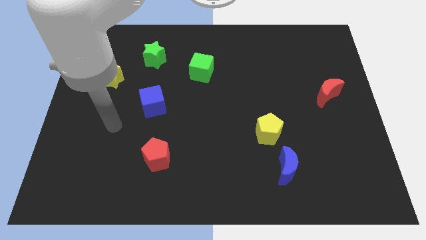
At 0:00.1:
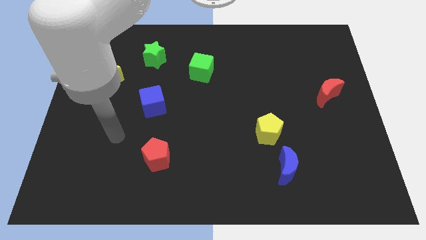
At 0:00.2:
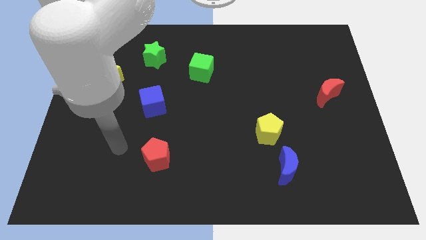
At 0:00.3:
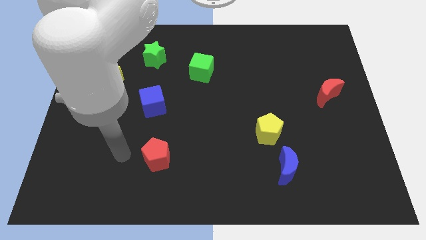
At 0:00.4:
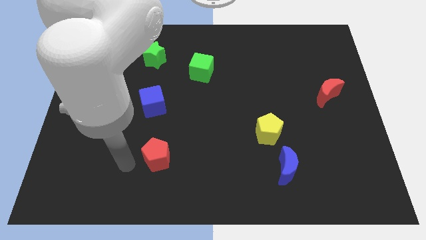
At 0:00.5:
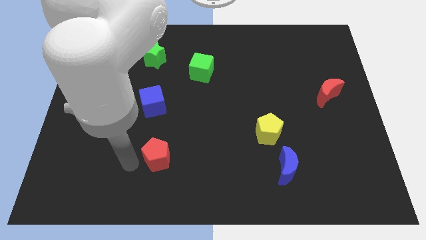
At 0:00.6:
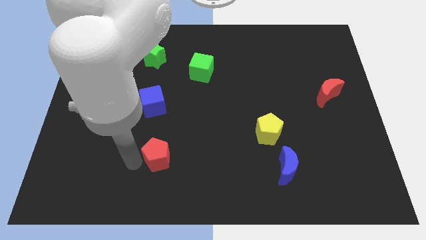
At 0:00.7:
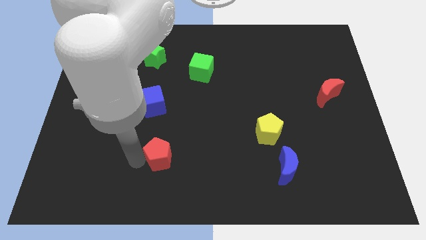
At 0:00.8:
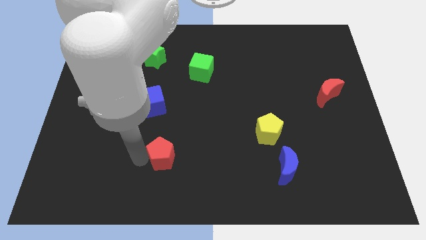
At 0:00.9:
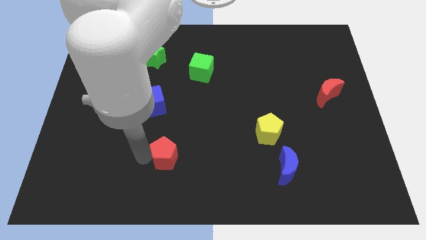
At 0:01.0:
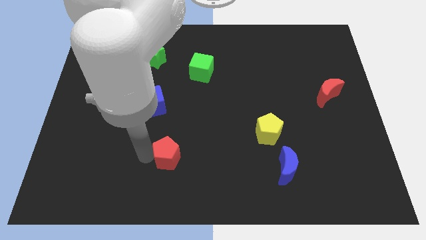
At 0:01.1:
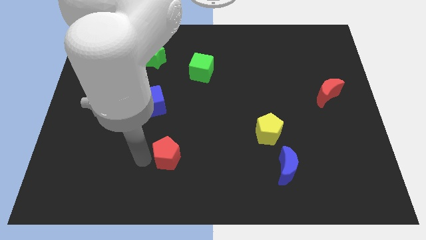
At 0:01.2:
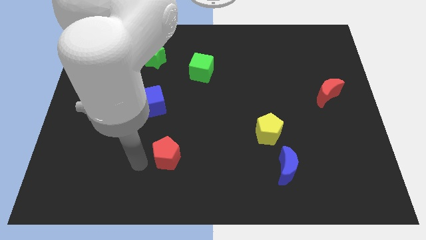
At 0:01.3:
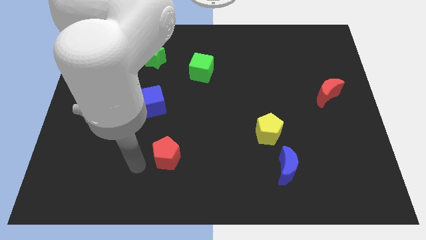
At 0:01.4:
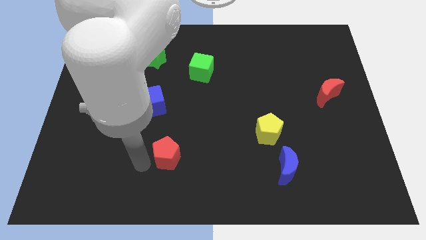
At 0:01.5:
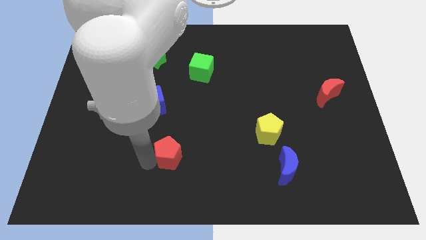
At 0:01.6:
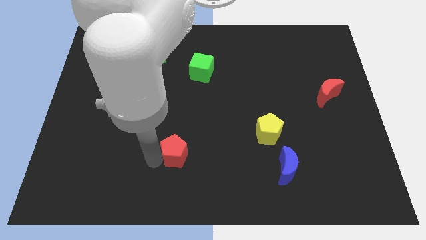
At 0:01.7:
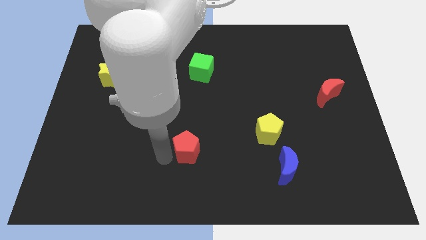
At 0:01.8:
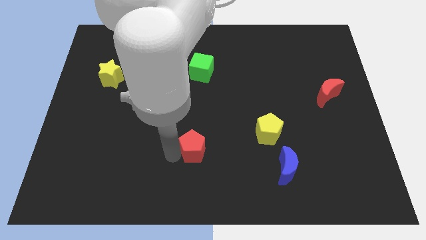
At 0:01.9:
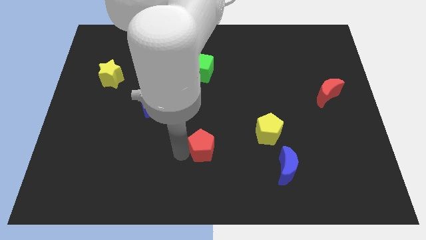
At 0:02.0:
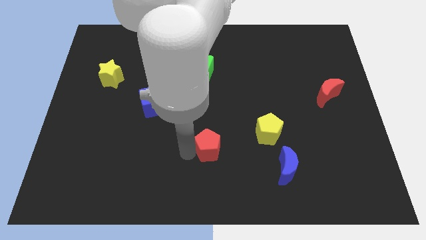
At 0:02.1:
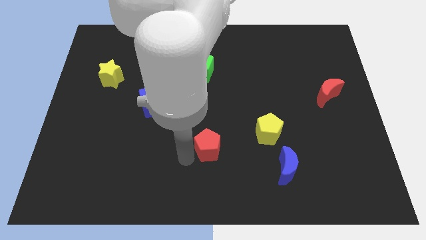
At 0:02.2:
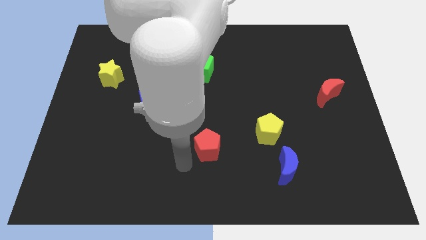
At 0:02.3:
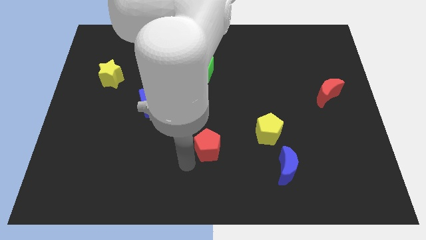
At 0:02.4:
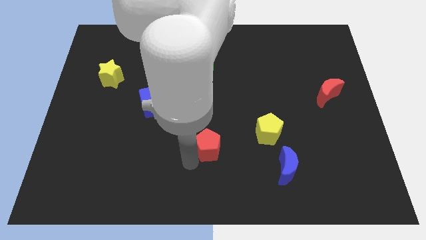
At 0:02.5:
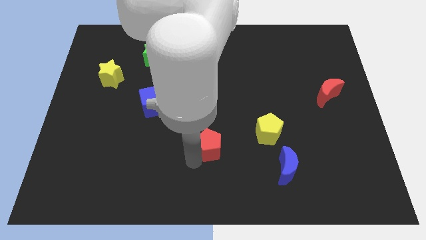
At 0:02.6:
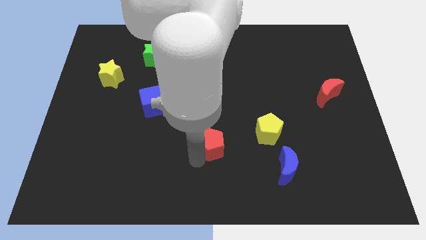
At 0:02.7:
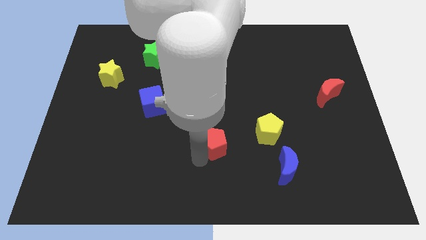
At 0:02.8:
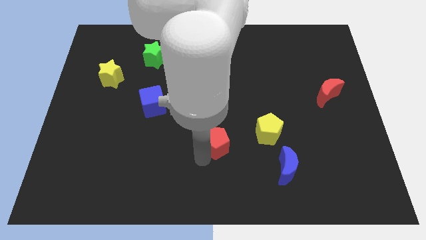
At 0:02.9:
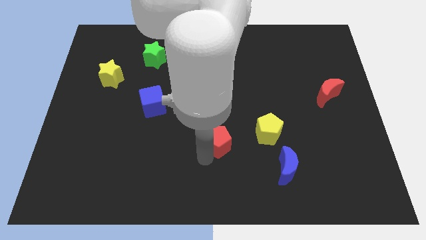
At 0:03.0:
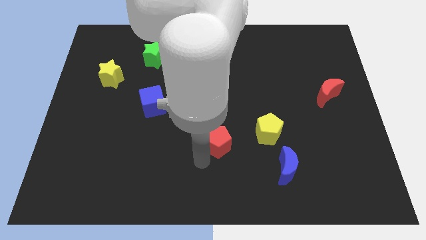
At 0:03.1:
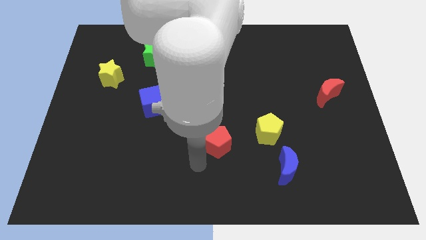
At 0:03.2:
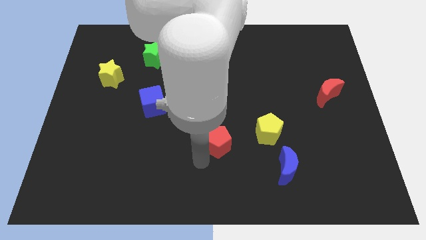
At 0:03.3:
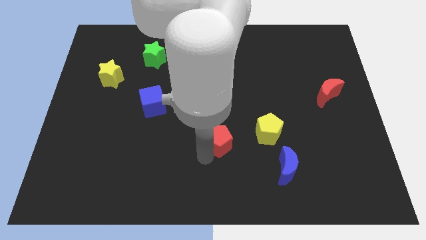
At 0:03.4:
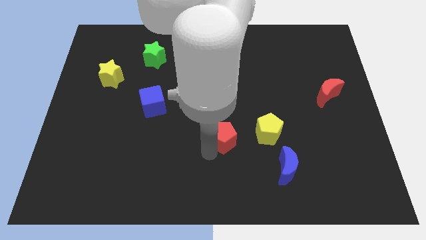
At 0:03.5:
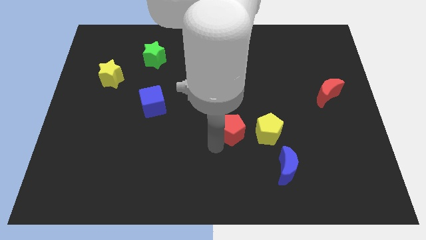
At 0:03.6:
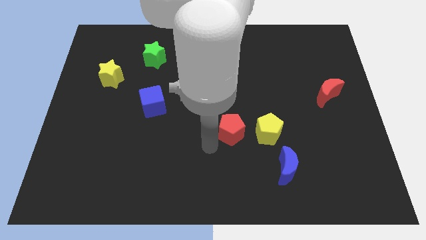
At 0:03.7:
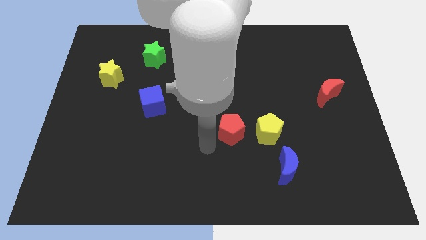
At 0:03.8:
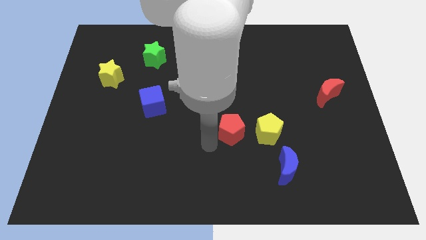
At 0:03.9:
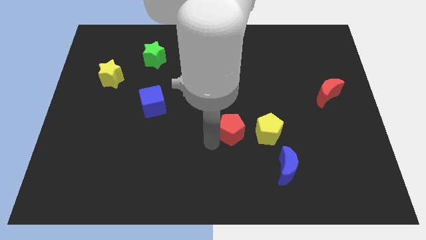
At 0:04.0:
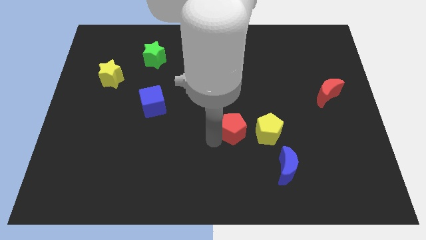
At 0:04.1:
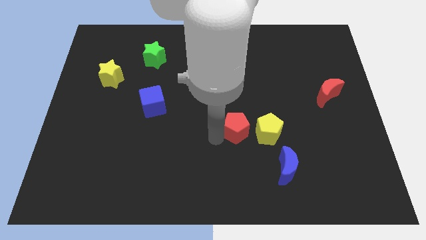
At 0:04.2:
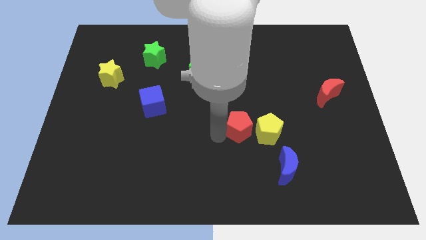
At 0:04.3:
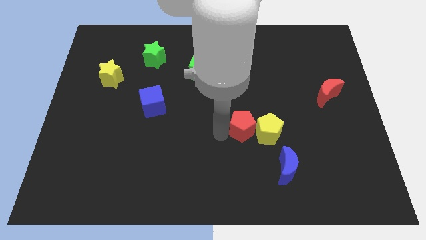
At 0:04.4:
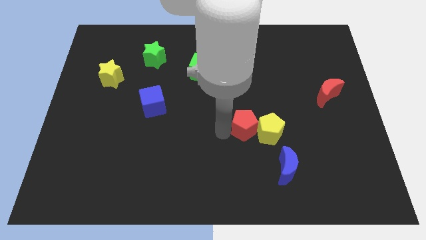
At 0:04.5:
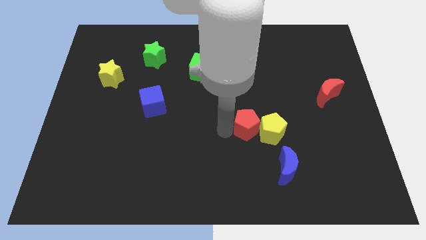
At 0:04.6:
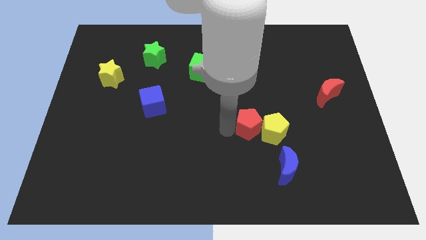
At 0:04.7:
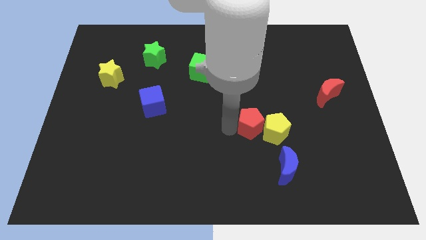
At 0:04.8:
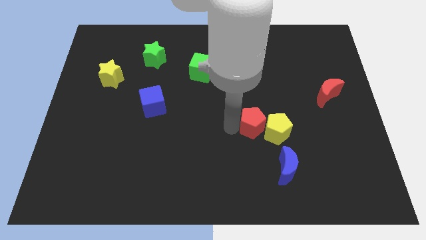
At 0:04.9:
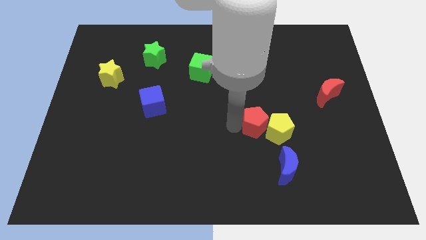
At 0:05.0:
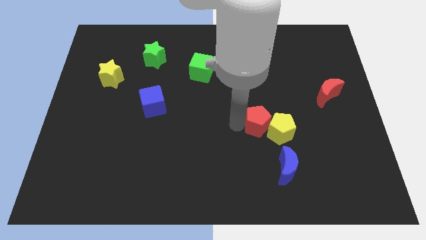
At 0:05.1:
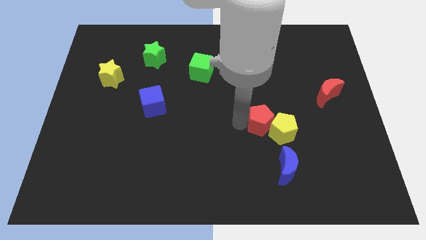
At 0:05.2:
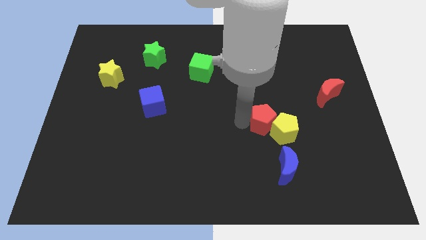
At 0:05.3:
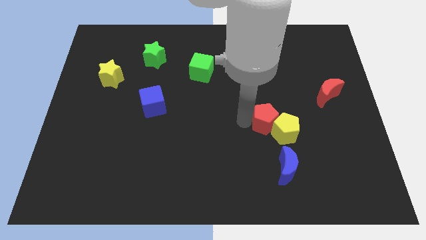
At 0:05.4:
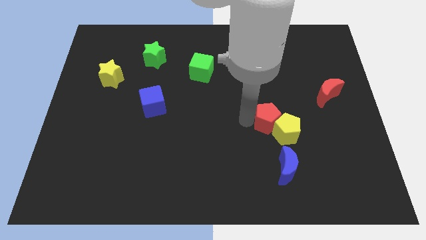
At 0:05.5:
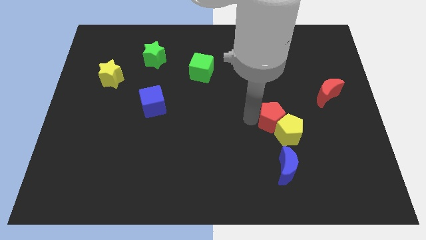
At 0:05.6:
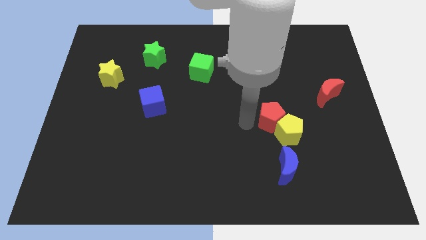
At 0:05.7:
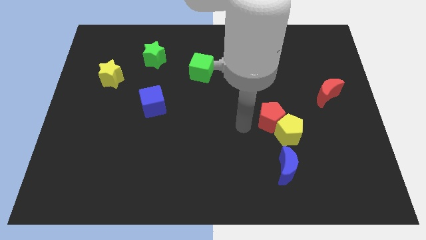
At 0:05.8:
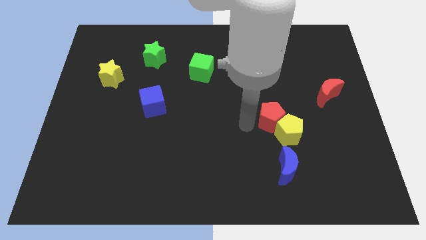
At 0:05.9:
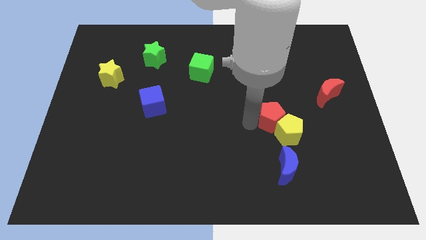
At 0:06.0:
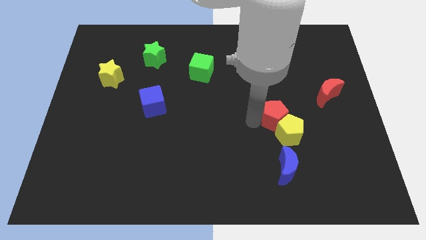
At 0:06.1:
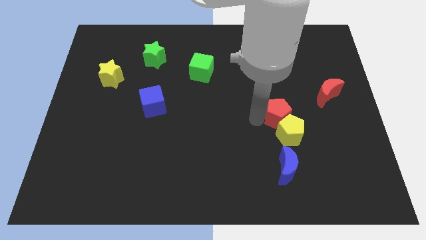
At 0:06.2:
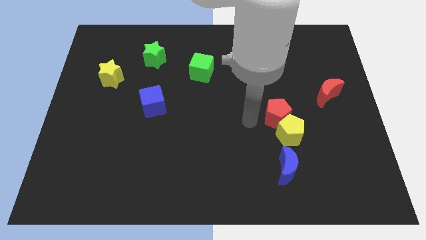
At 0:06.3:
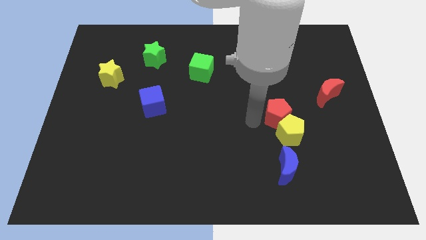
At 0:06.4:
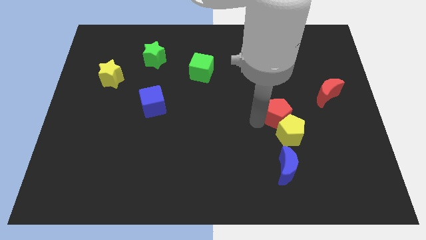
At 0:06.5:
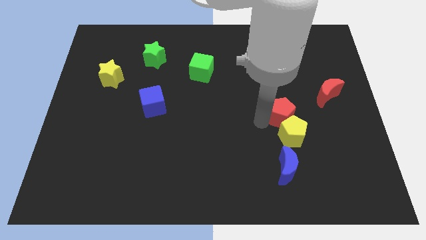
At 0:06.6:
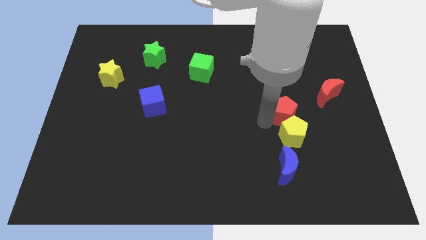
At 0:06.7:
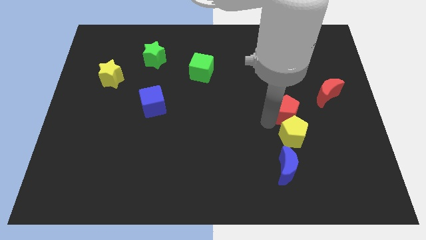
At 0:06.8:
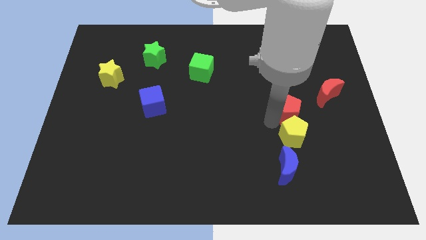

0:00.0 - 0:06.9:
push the red pentagon to the bottom left of the red moon

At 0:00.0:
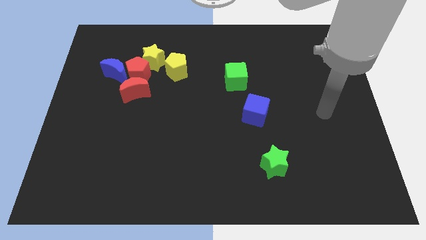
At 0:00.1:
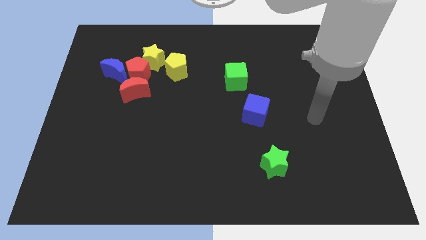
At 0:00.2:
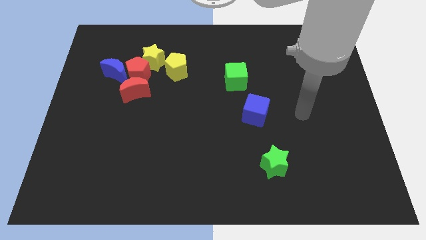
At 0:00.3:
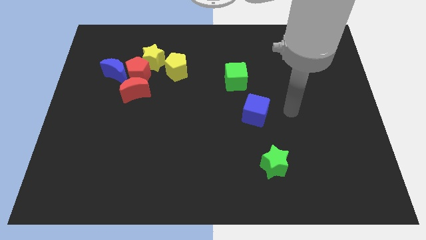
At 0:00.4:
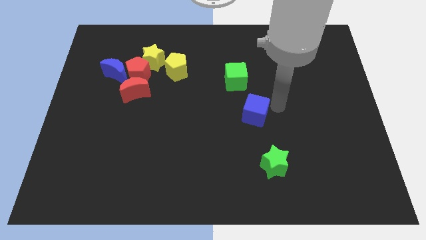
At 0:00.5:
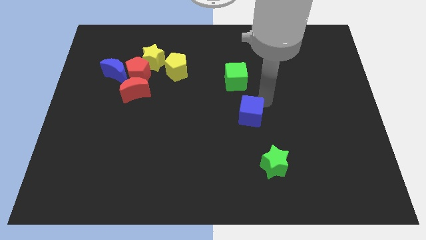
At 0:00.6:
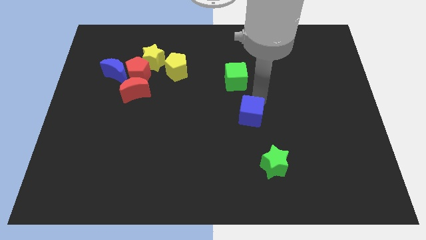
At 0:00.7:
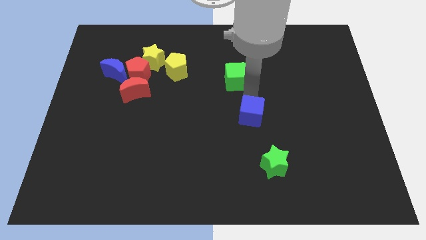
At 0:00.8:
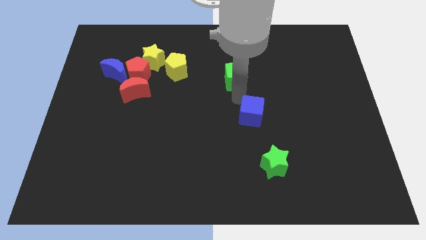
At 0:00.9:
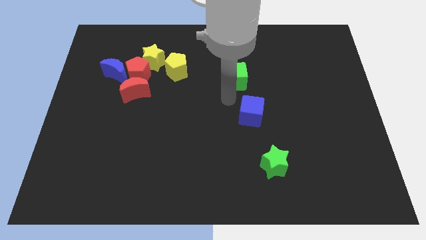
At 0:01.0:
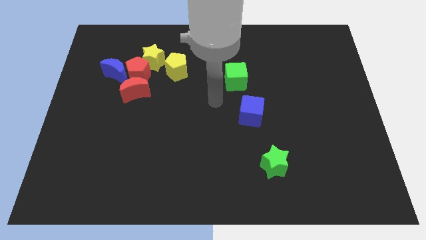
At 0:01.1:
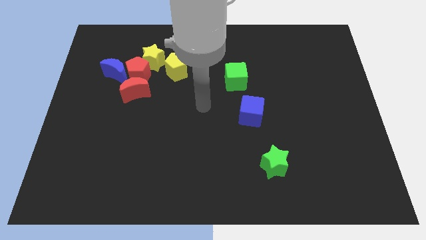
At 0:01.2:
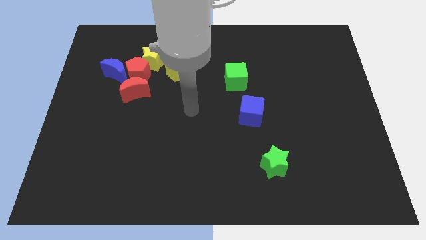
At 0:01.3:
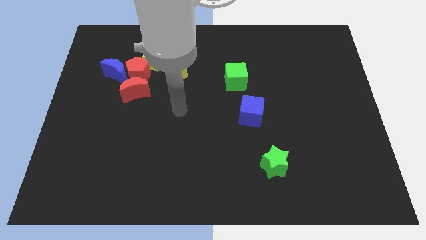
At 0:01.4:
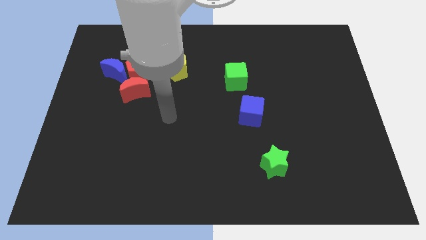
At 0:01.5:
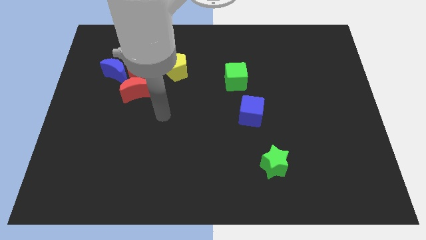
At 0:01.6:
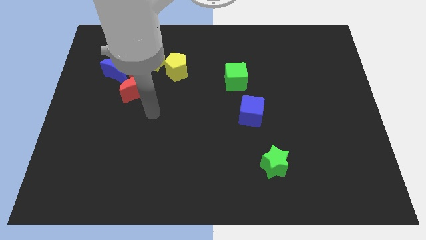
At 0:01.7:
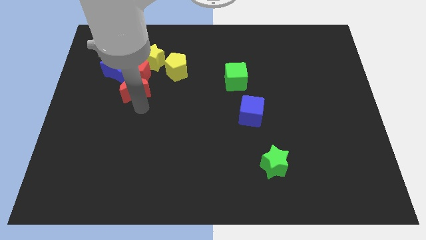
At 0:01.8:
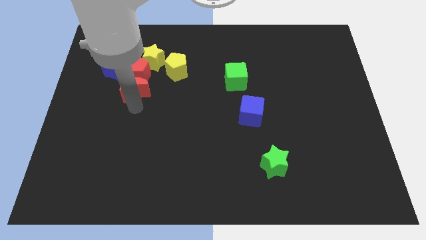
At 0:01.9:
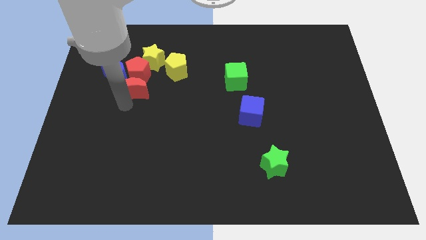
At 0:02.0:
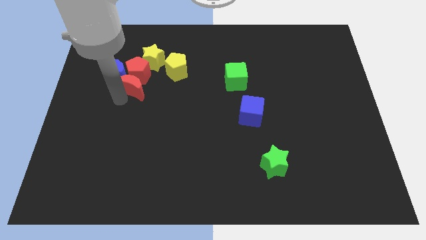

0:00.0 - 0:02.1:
push the blue moon to the top of the red moon
